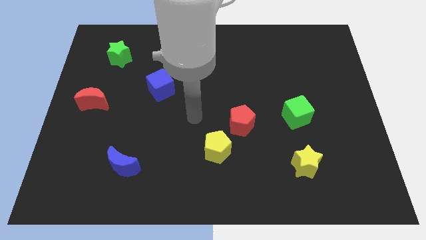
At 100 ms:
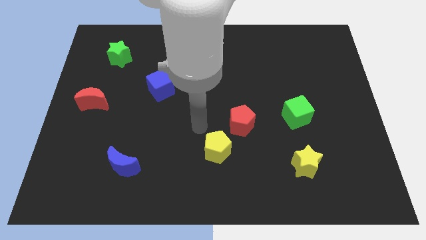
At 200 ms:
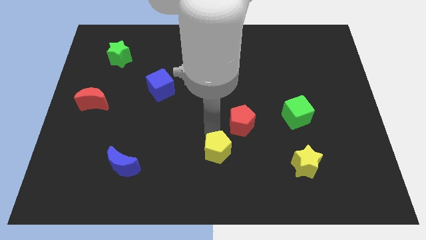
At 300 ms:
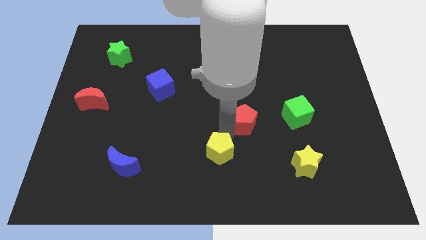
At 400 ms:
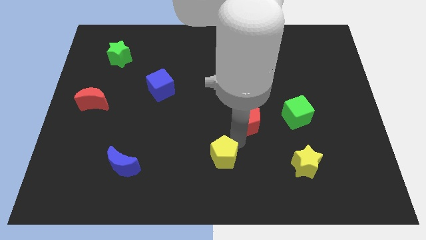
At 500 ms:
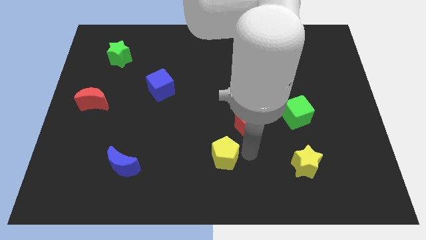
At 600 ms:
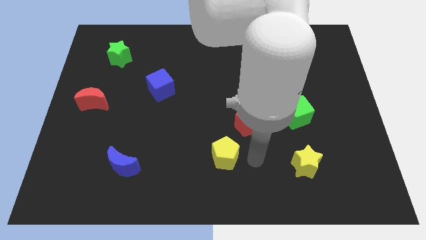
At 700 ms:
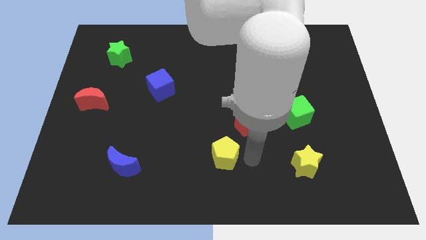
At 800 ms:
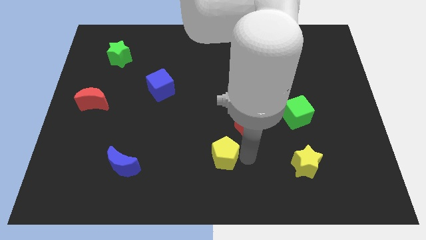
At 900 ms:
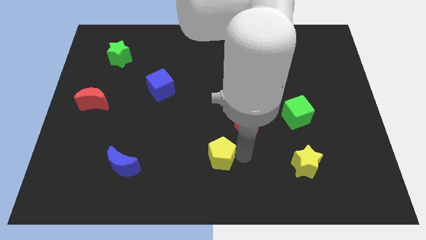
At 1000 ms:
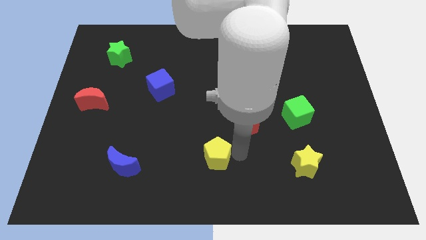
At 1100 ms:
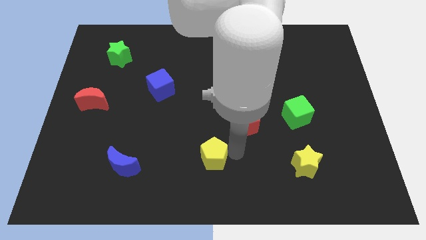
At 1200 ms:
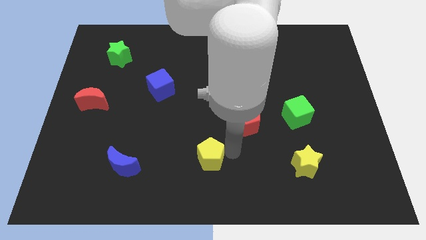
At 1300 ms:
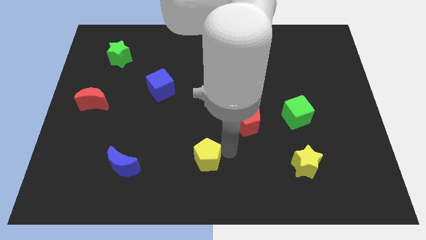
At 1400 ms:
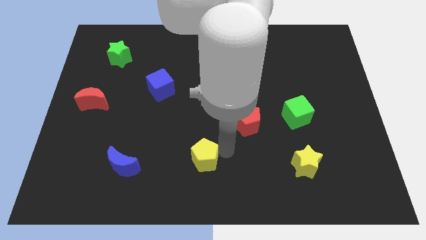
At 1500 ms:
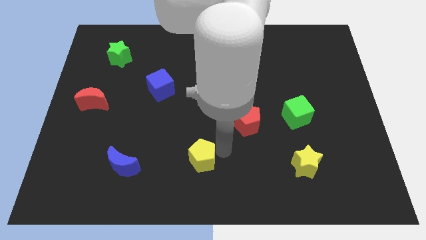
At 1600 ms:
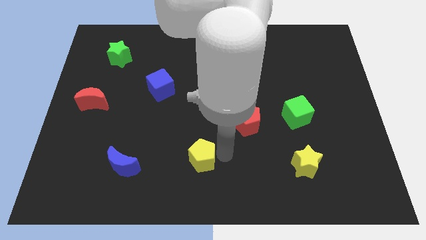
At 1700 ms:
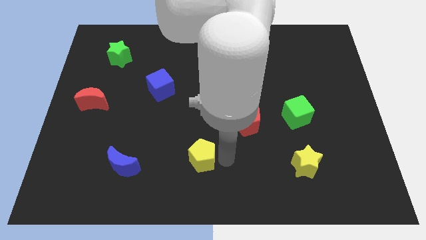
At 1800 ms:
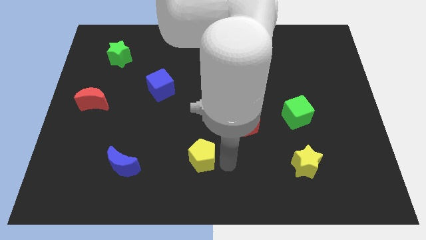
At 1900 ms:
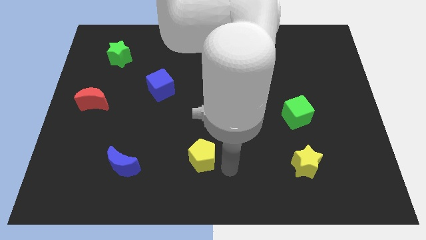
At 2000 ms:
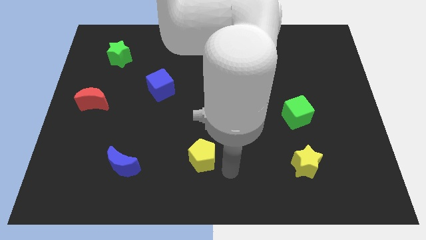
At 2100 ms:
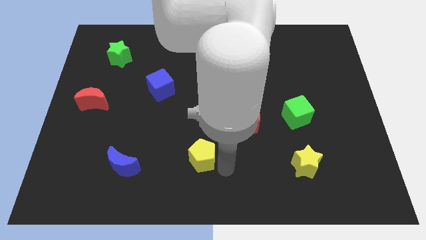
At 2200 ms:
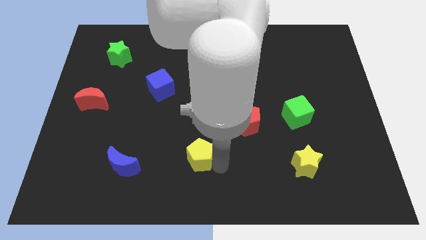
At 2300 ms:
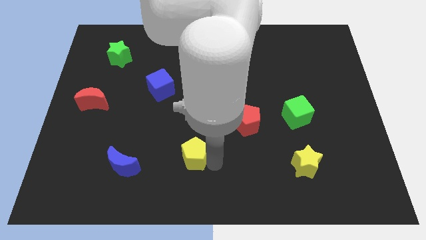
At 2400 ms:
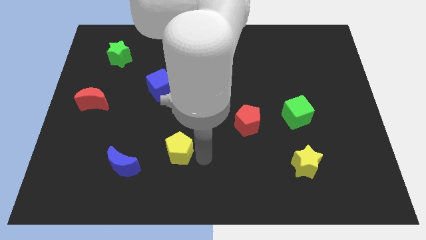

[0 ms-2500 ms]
move the yellow pentagon a bit left

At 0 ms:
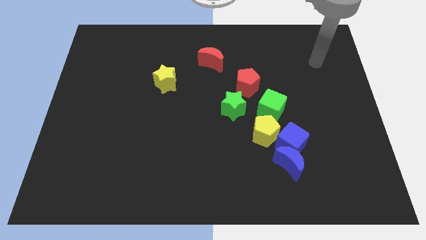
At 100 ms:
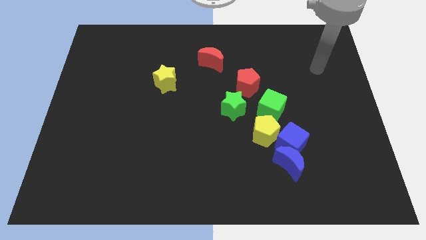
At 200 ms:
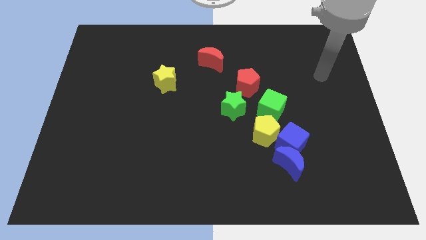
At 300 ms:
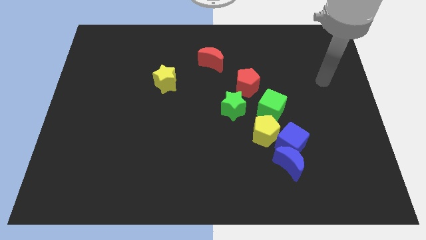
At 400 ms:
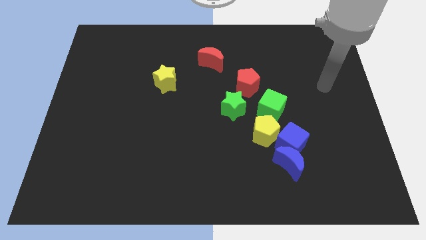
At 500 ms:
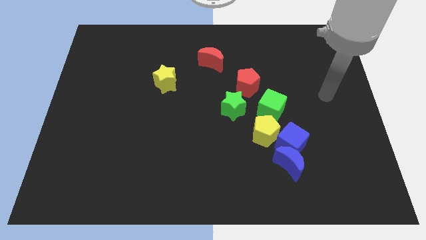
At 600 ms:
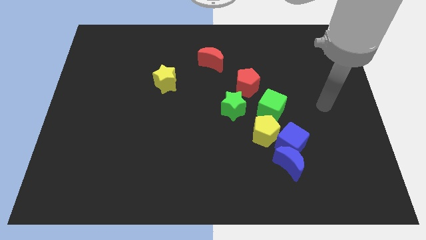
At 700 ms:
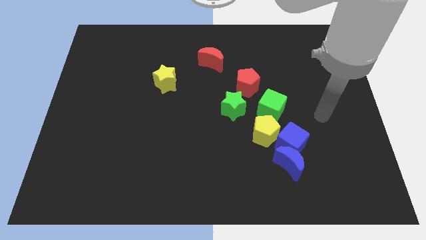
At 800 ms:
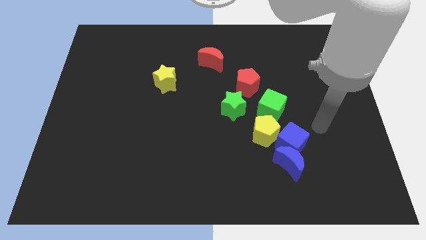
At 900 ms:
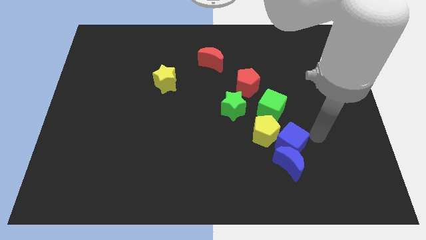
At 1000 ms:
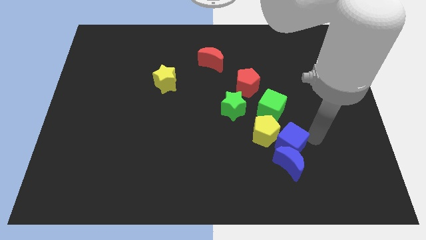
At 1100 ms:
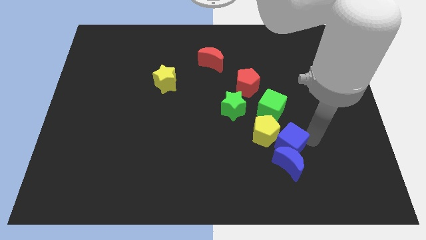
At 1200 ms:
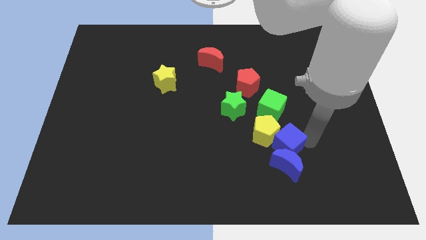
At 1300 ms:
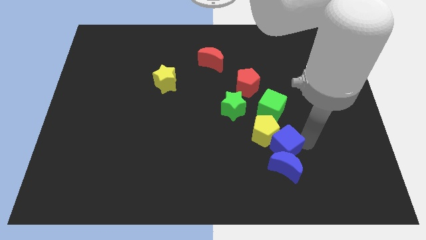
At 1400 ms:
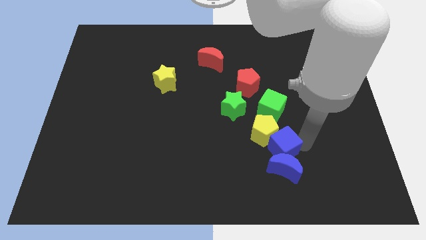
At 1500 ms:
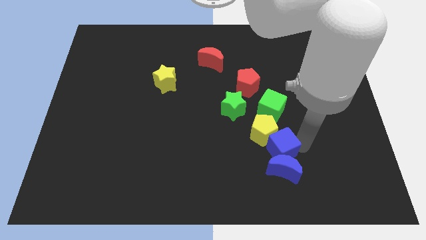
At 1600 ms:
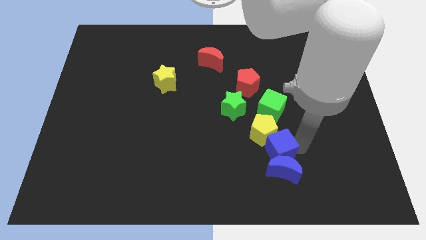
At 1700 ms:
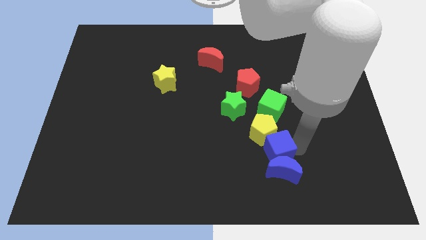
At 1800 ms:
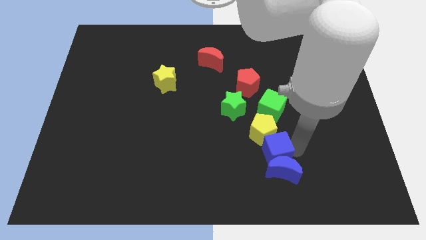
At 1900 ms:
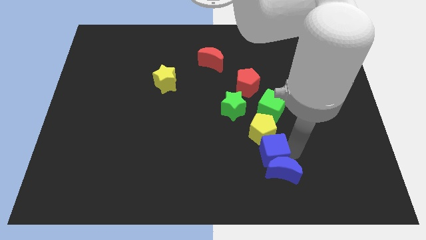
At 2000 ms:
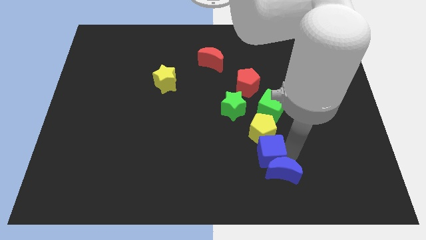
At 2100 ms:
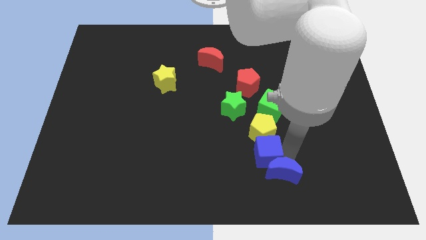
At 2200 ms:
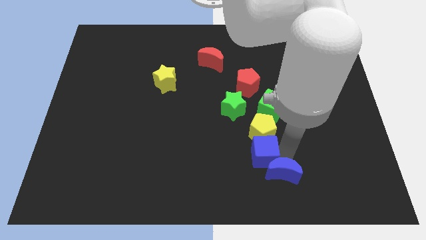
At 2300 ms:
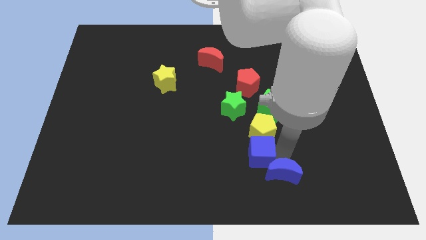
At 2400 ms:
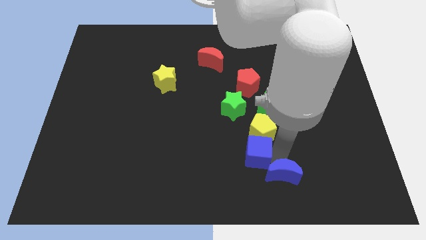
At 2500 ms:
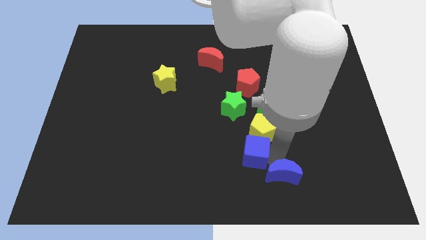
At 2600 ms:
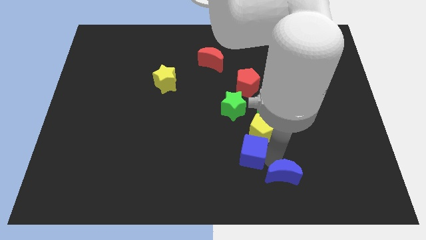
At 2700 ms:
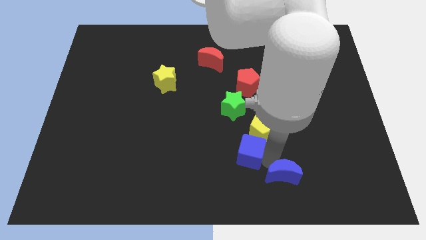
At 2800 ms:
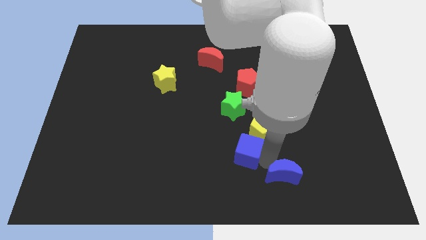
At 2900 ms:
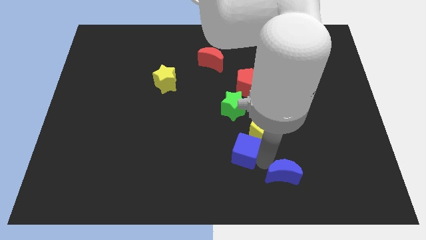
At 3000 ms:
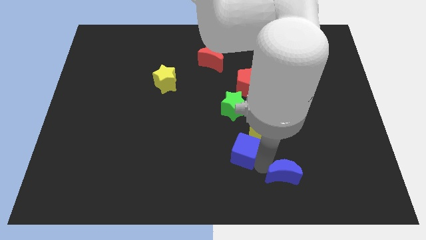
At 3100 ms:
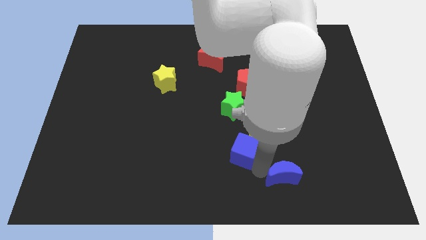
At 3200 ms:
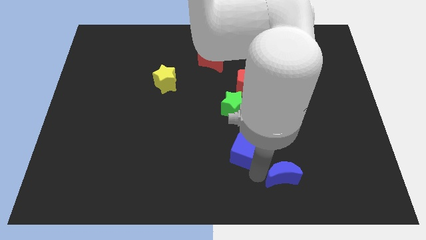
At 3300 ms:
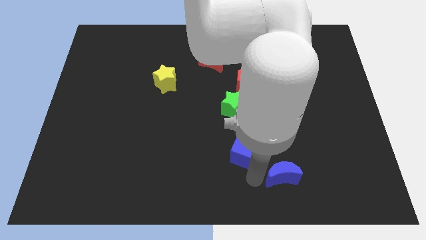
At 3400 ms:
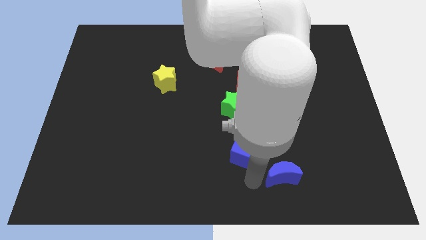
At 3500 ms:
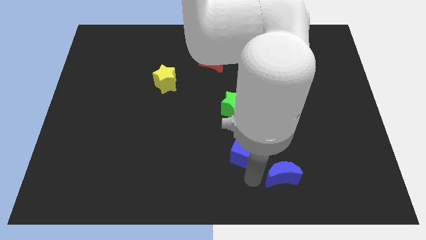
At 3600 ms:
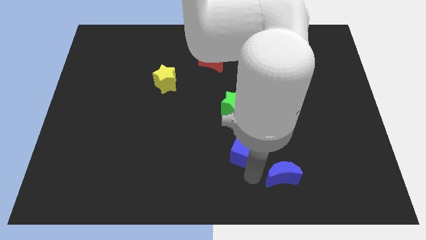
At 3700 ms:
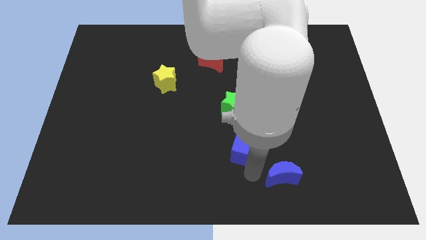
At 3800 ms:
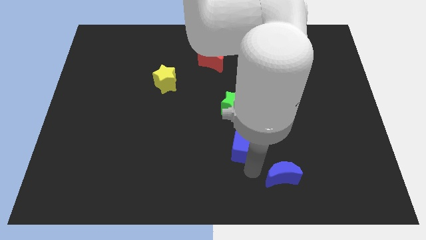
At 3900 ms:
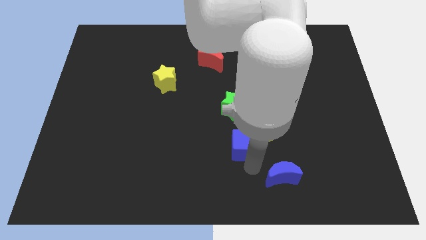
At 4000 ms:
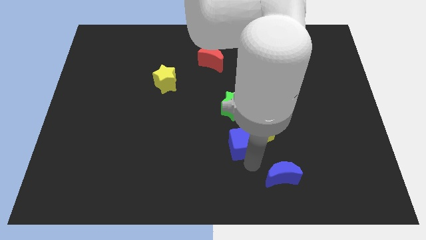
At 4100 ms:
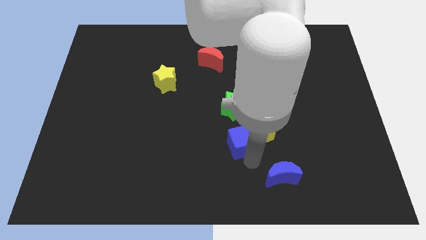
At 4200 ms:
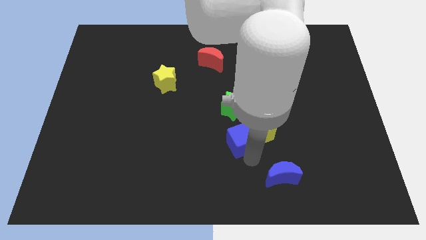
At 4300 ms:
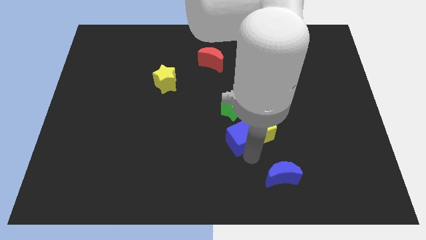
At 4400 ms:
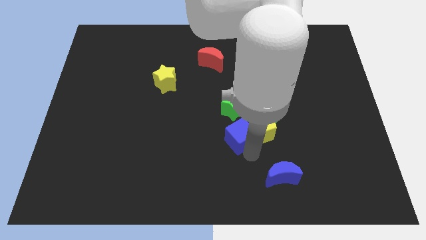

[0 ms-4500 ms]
slightly move the blue cube upwards and to the left

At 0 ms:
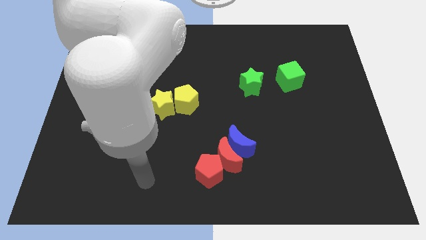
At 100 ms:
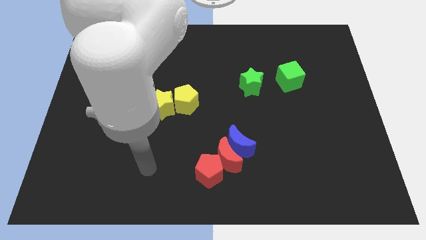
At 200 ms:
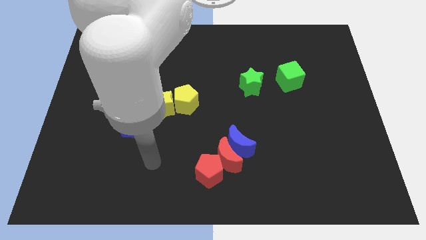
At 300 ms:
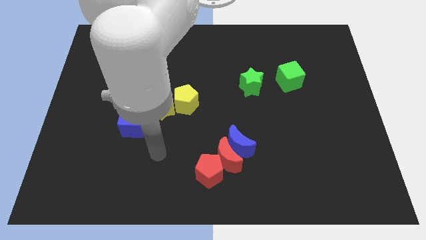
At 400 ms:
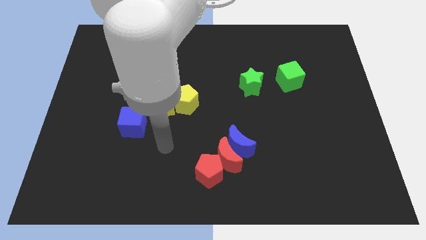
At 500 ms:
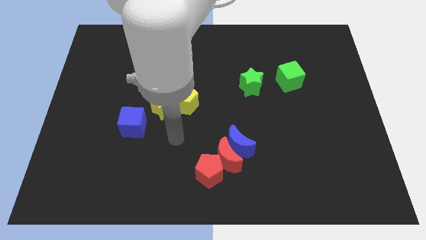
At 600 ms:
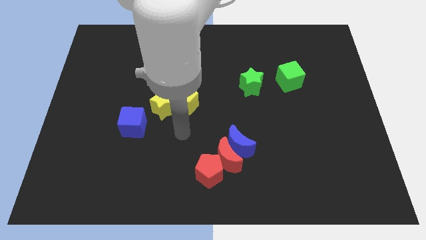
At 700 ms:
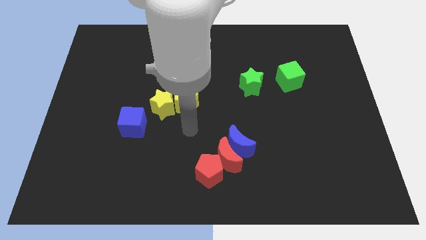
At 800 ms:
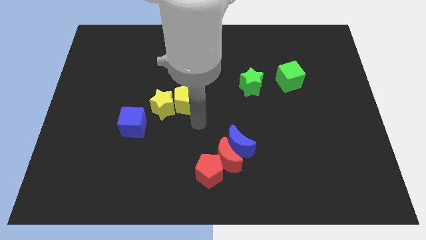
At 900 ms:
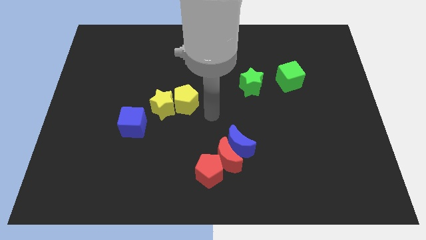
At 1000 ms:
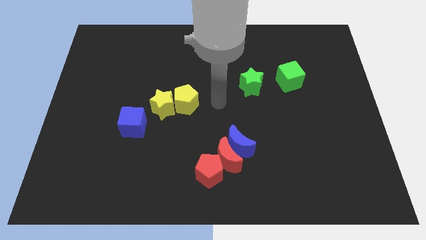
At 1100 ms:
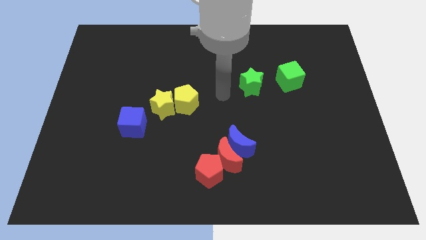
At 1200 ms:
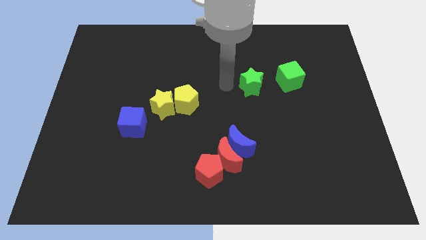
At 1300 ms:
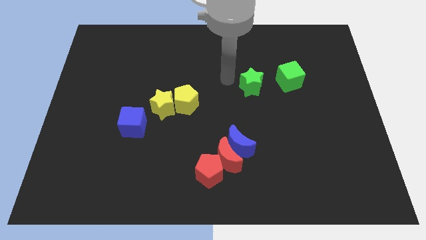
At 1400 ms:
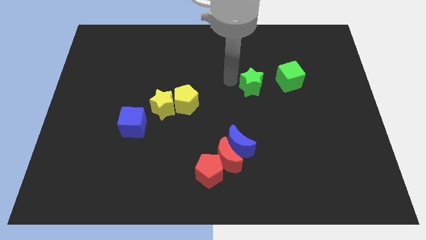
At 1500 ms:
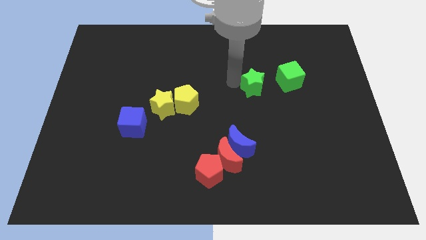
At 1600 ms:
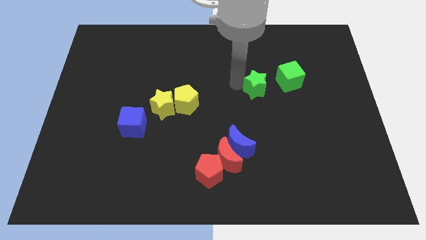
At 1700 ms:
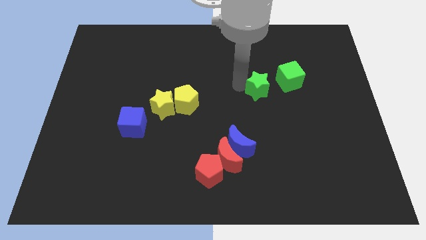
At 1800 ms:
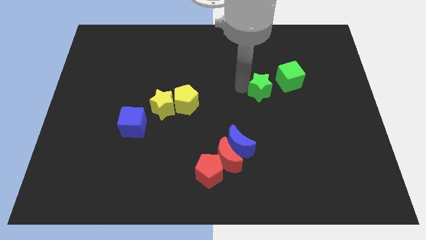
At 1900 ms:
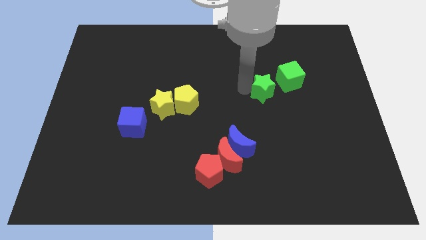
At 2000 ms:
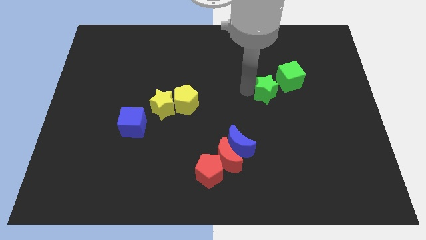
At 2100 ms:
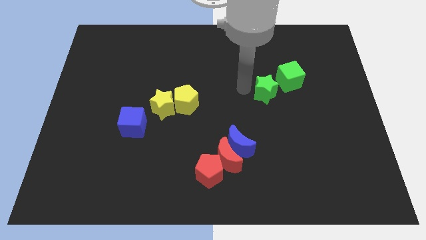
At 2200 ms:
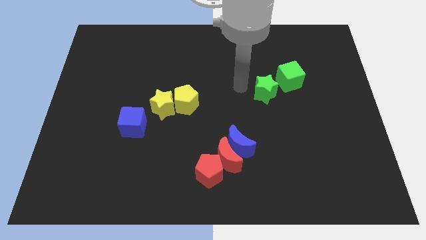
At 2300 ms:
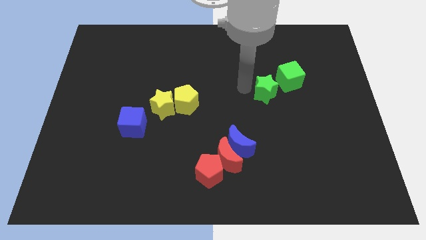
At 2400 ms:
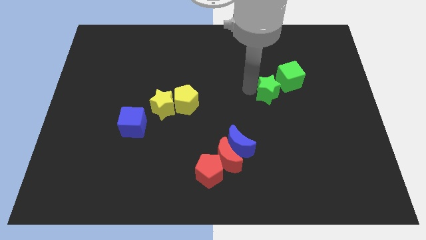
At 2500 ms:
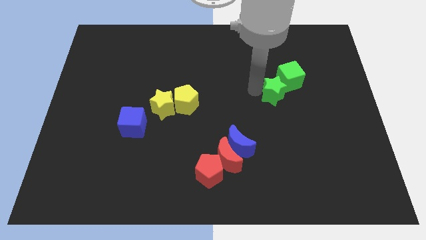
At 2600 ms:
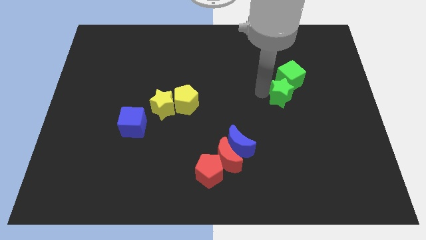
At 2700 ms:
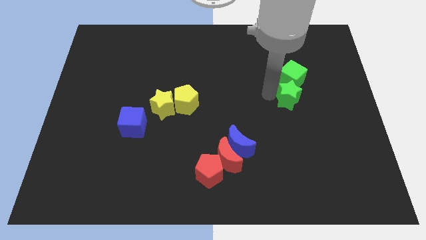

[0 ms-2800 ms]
move the green star somewhat to the right
